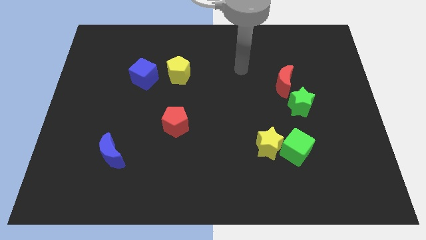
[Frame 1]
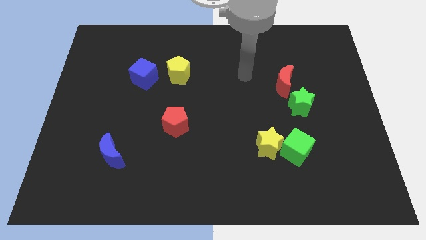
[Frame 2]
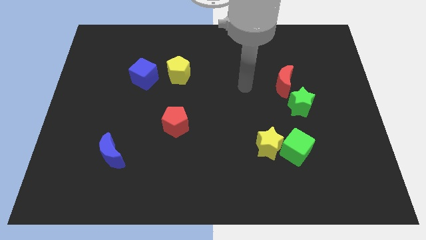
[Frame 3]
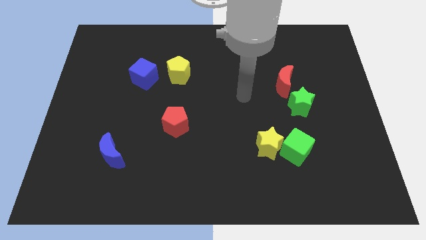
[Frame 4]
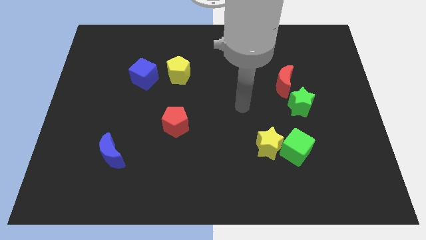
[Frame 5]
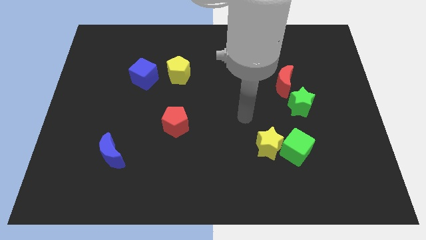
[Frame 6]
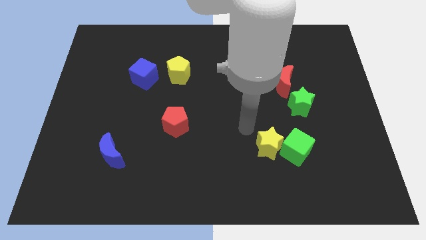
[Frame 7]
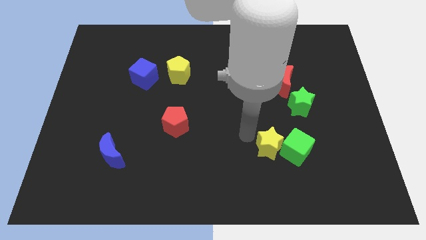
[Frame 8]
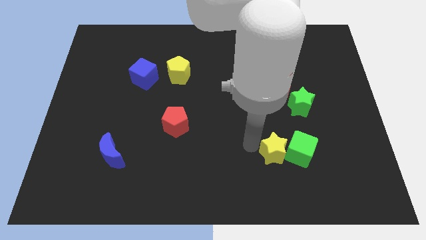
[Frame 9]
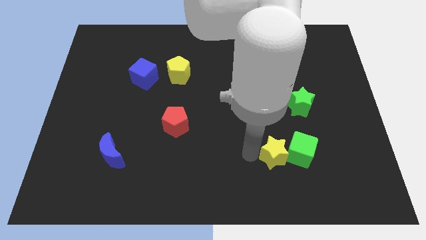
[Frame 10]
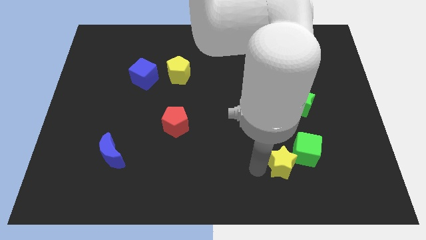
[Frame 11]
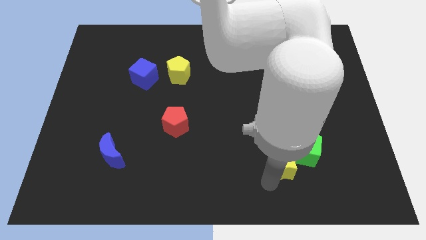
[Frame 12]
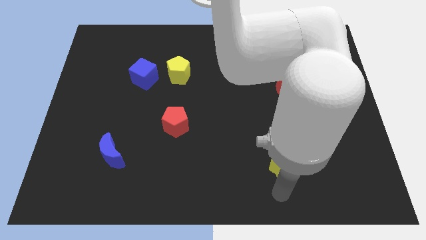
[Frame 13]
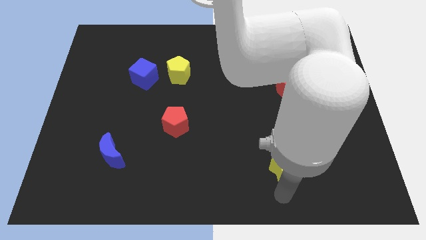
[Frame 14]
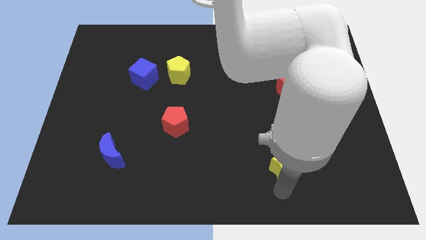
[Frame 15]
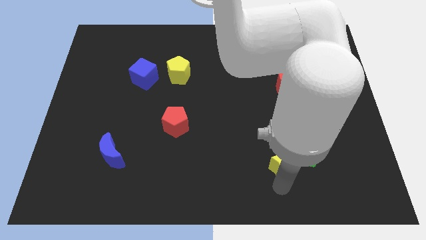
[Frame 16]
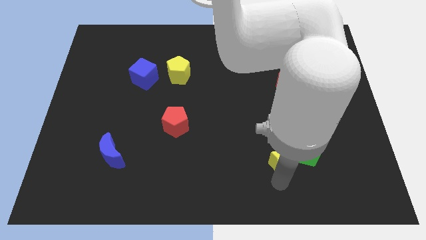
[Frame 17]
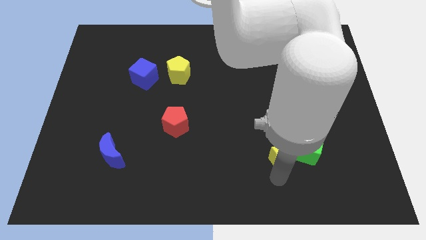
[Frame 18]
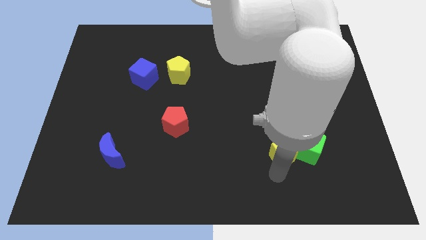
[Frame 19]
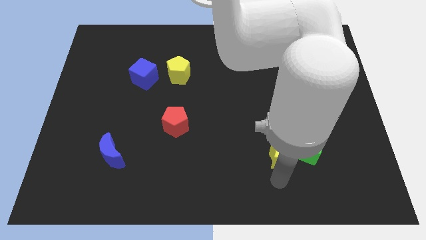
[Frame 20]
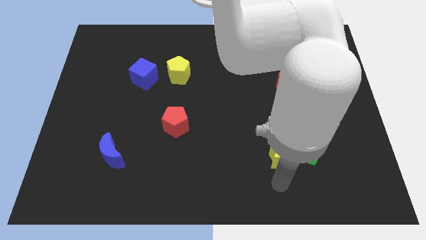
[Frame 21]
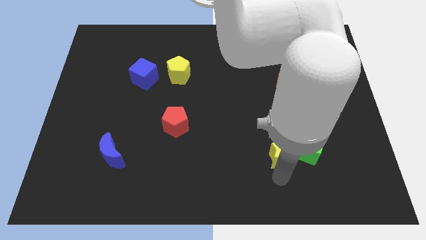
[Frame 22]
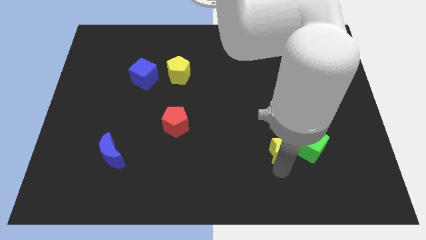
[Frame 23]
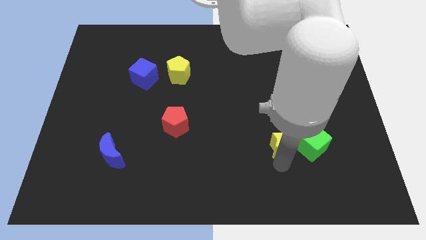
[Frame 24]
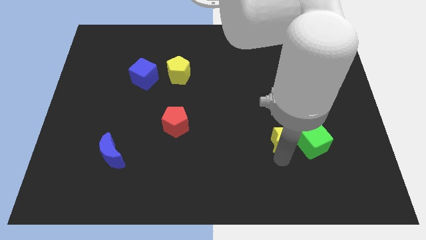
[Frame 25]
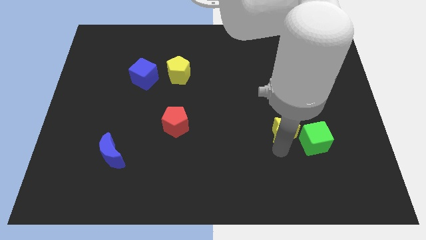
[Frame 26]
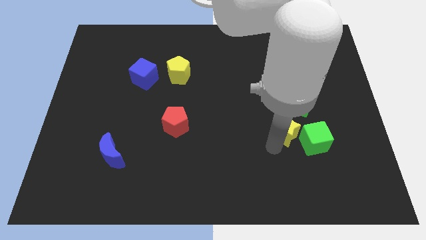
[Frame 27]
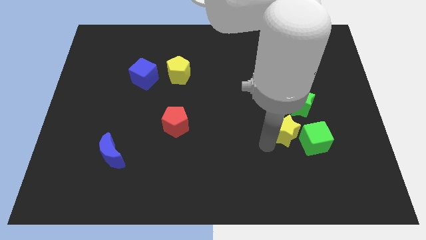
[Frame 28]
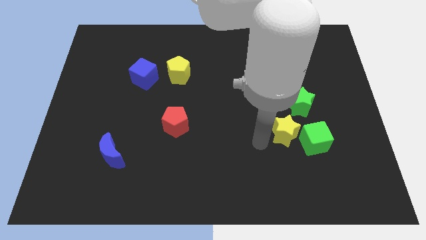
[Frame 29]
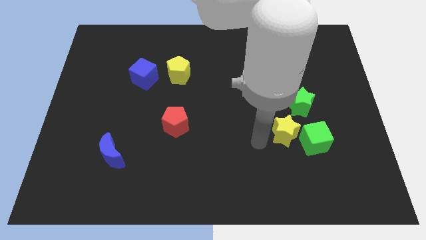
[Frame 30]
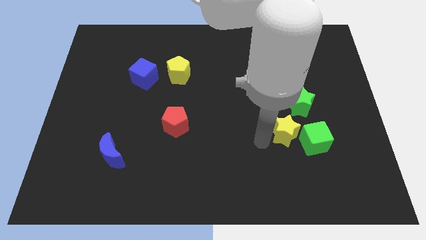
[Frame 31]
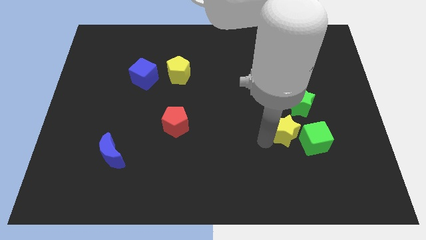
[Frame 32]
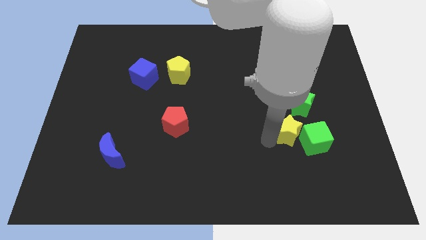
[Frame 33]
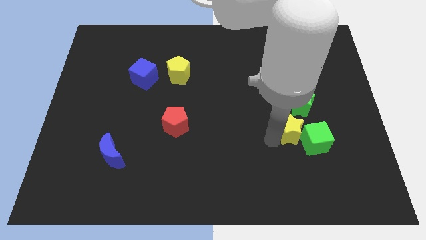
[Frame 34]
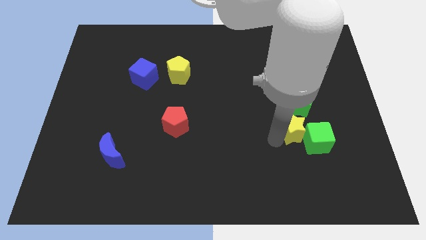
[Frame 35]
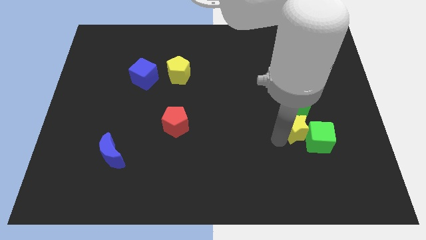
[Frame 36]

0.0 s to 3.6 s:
push the yellow star a little up and right

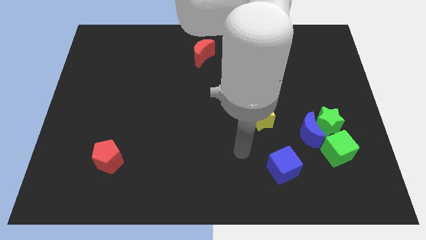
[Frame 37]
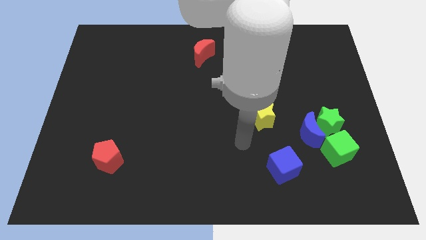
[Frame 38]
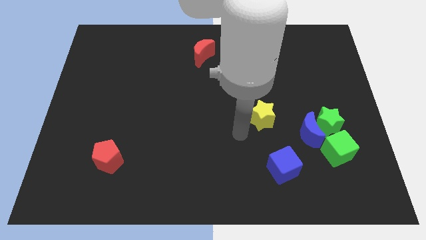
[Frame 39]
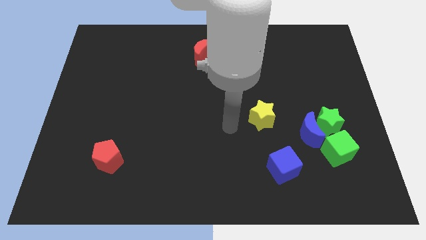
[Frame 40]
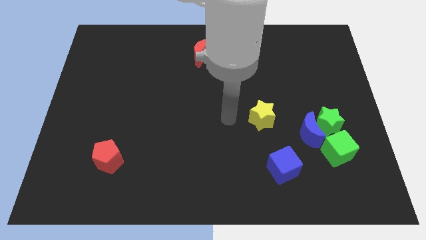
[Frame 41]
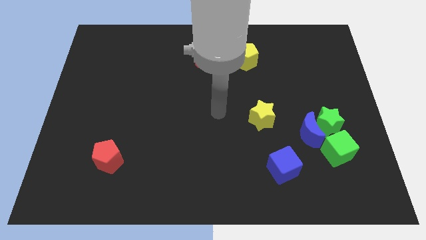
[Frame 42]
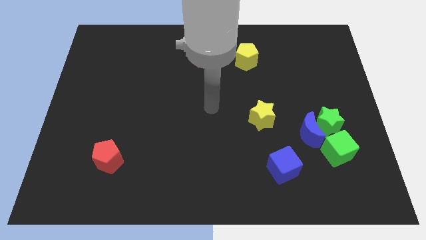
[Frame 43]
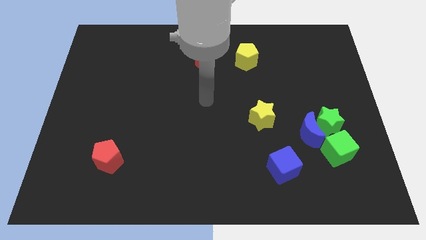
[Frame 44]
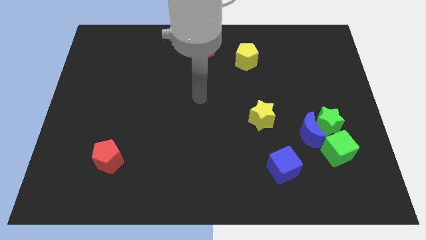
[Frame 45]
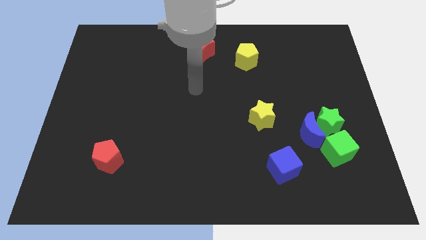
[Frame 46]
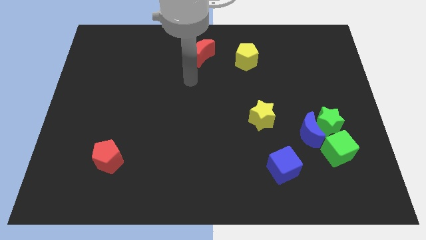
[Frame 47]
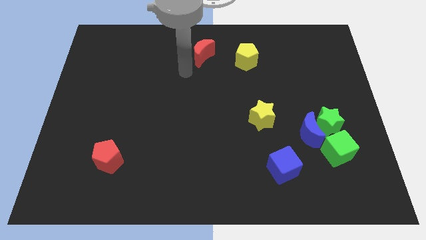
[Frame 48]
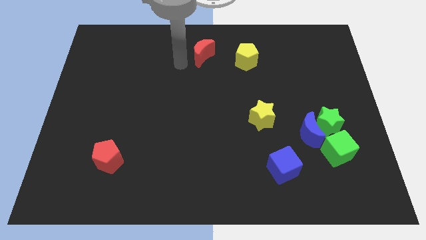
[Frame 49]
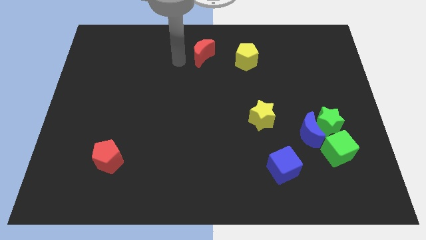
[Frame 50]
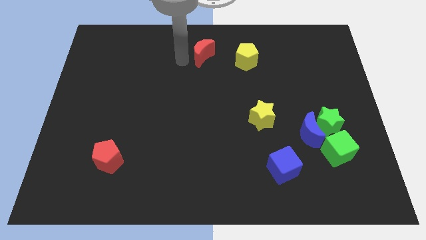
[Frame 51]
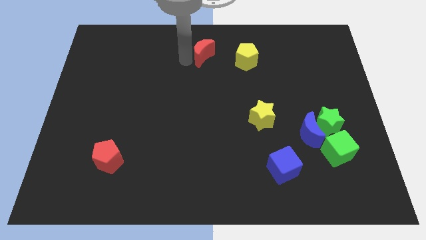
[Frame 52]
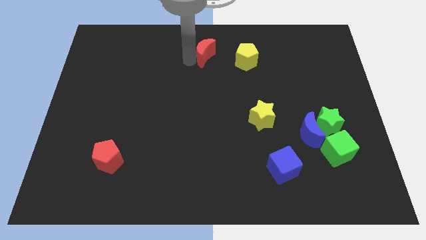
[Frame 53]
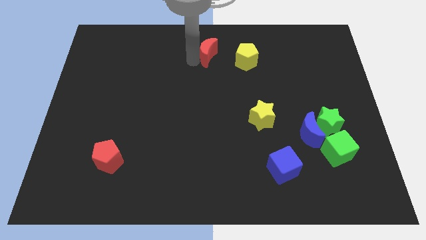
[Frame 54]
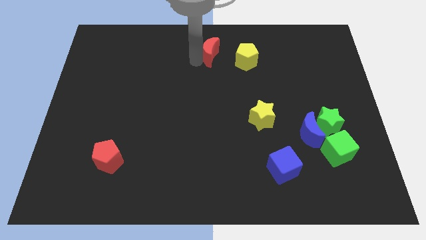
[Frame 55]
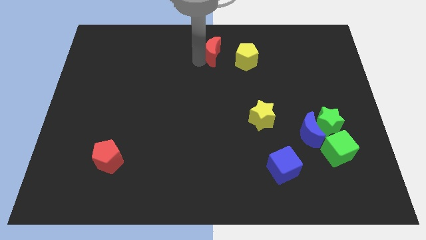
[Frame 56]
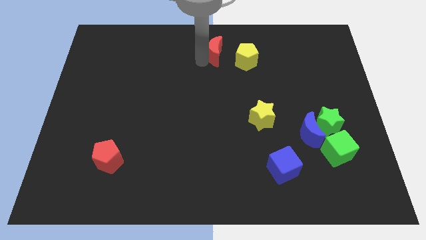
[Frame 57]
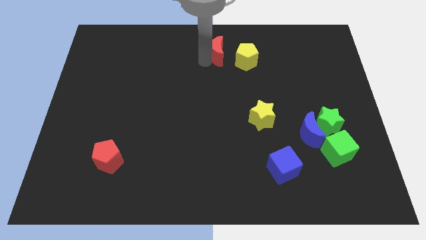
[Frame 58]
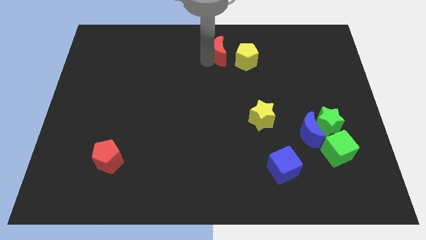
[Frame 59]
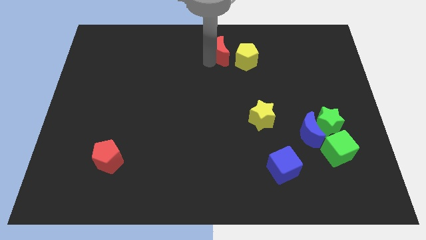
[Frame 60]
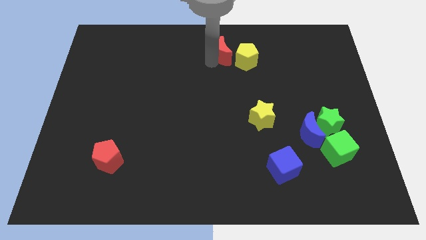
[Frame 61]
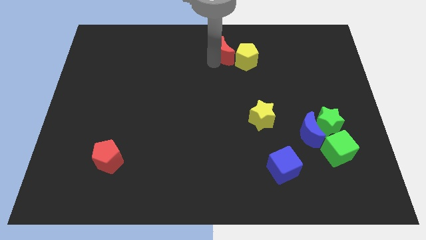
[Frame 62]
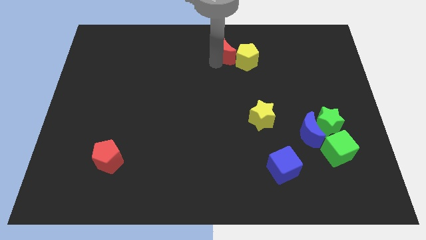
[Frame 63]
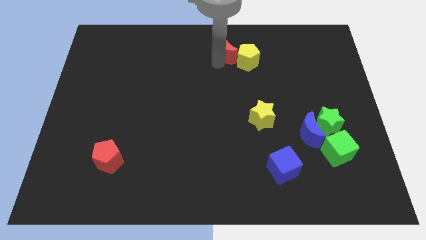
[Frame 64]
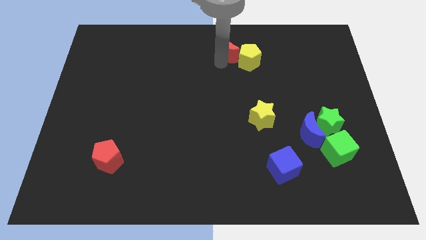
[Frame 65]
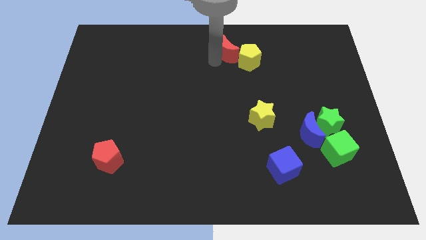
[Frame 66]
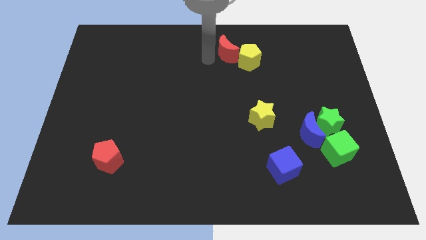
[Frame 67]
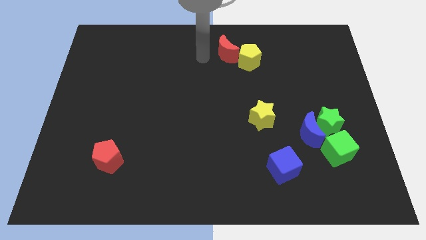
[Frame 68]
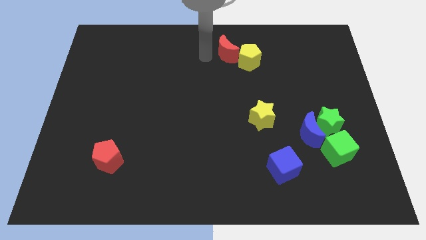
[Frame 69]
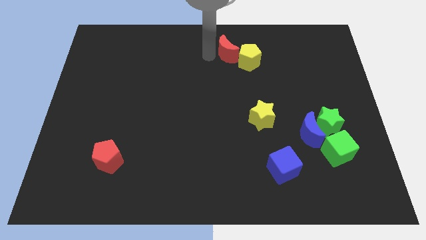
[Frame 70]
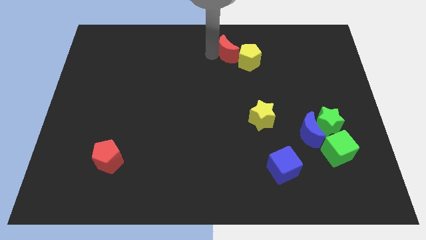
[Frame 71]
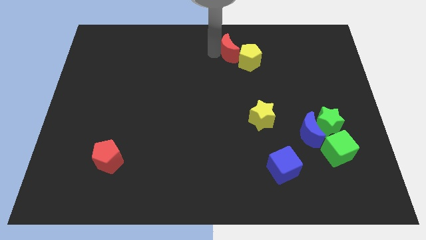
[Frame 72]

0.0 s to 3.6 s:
slightly move the red moon to the right

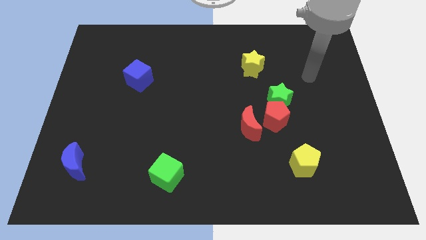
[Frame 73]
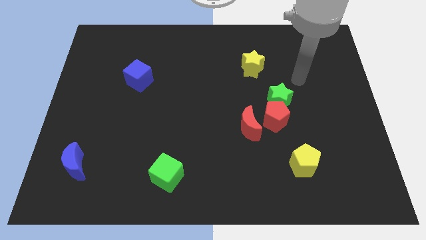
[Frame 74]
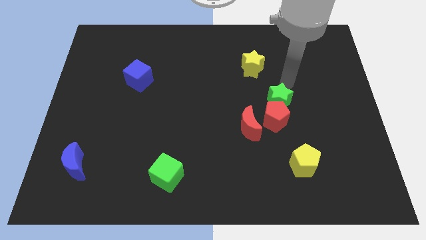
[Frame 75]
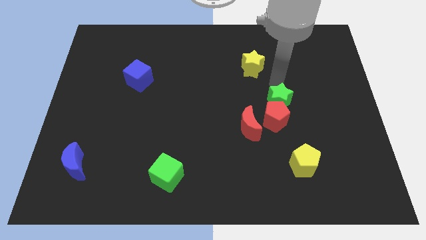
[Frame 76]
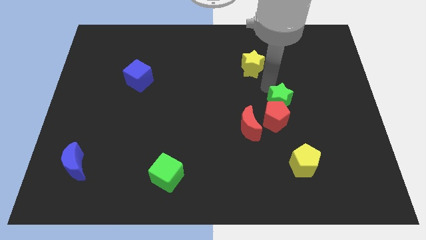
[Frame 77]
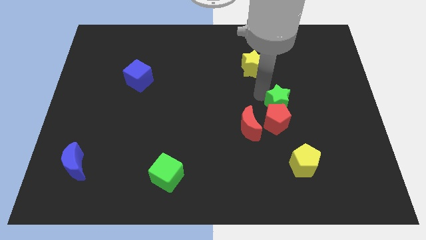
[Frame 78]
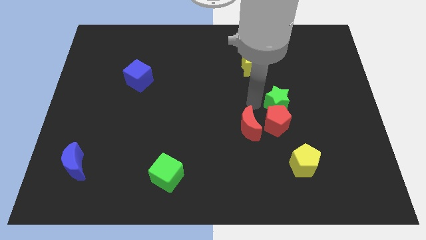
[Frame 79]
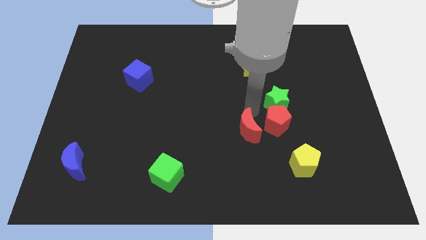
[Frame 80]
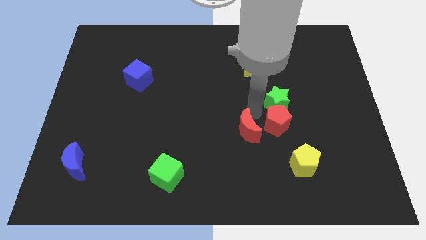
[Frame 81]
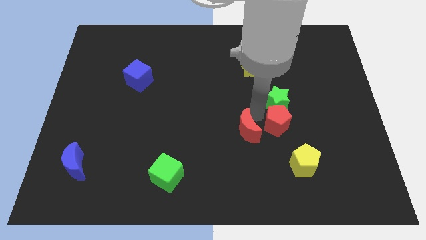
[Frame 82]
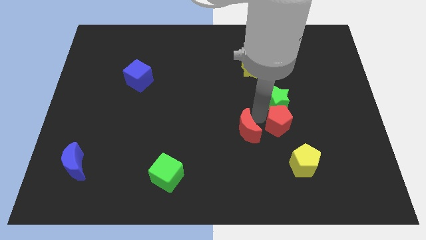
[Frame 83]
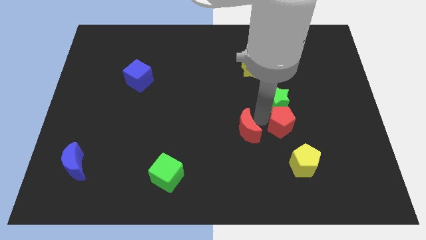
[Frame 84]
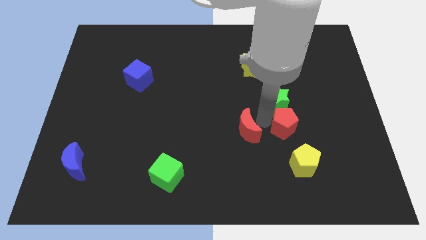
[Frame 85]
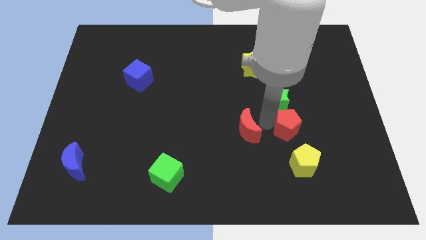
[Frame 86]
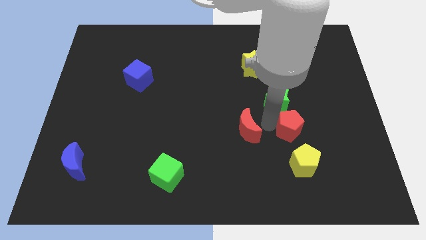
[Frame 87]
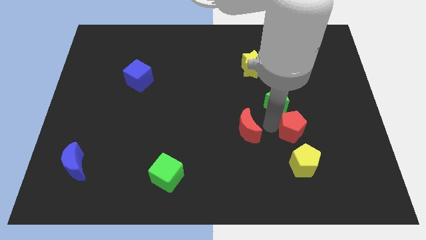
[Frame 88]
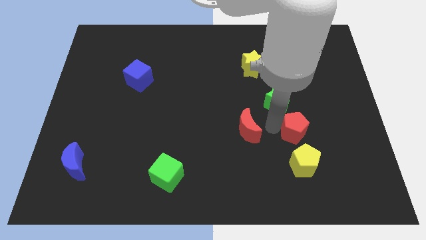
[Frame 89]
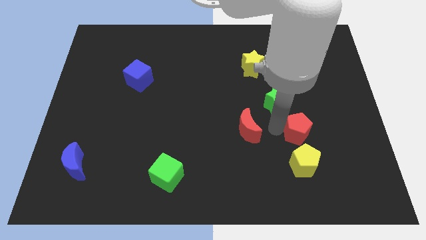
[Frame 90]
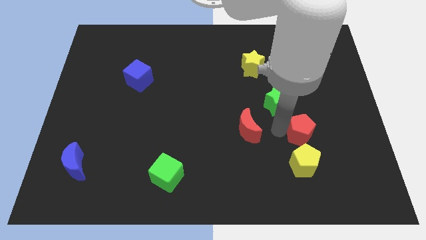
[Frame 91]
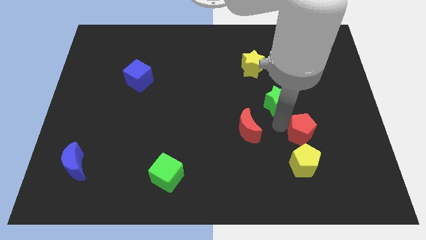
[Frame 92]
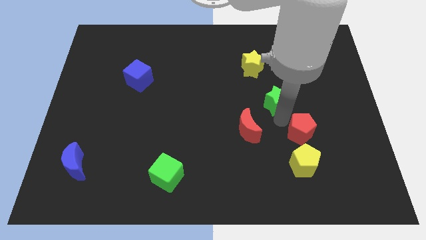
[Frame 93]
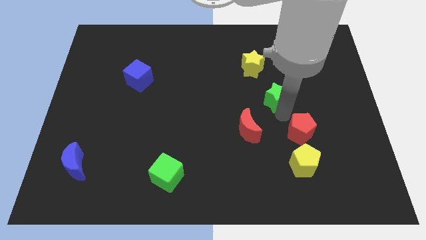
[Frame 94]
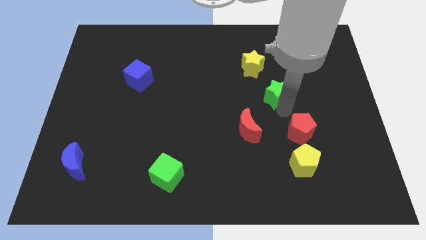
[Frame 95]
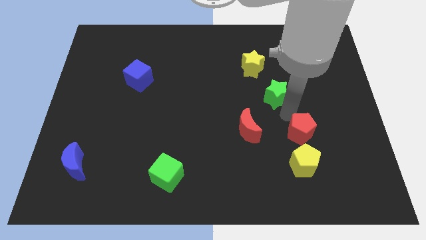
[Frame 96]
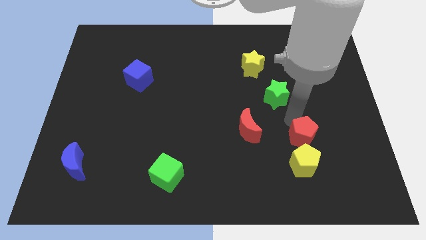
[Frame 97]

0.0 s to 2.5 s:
slightly move the red pentagon down and to the right diagonally
